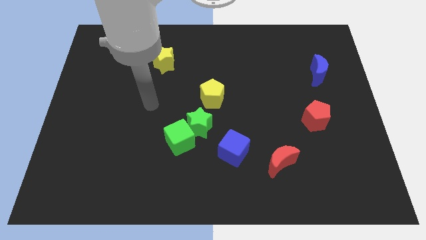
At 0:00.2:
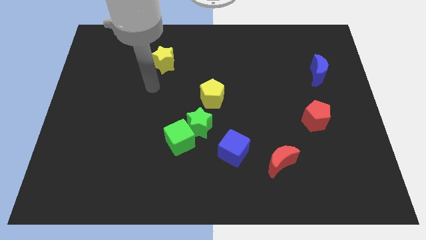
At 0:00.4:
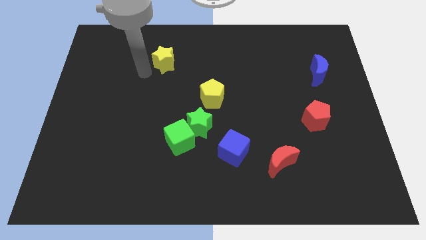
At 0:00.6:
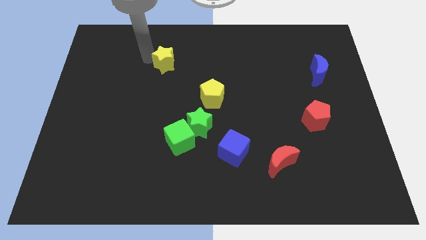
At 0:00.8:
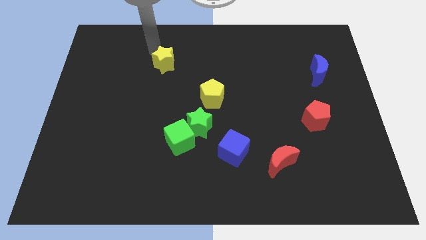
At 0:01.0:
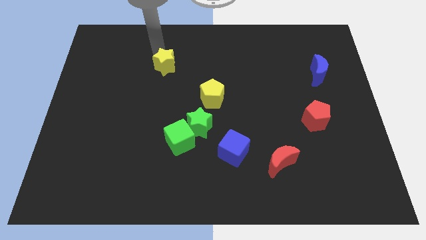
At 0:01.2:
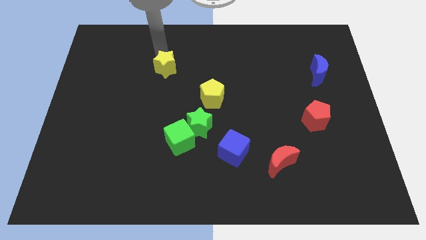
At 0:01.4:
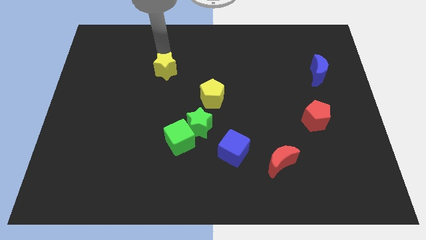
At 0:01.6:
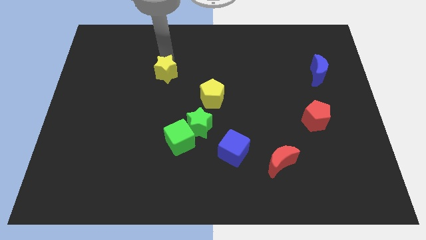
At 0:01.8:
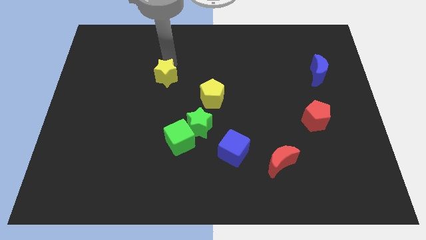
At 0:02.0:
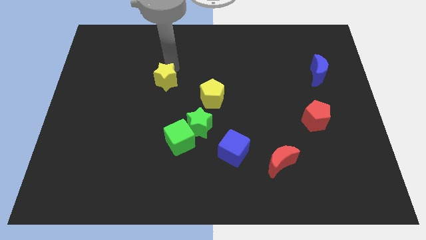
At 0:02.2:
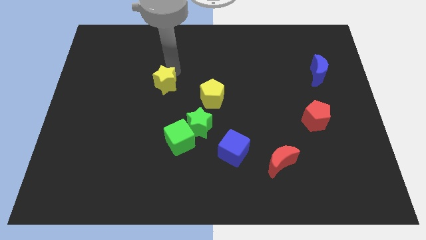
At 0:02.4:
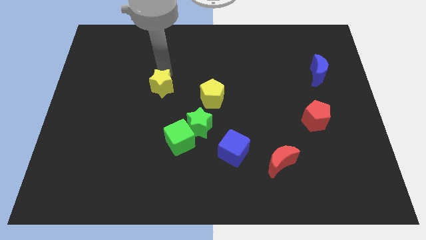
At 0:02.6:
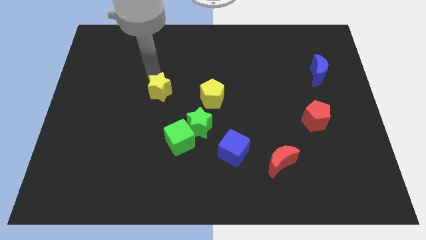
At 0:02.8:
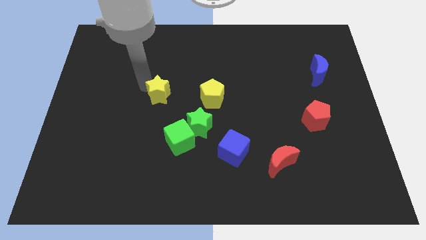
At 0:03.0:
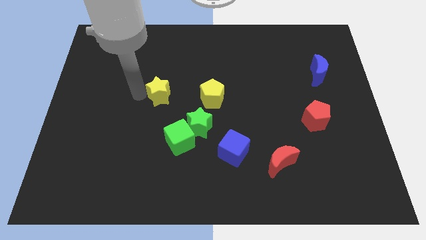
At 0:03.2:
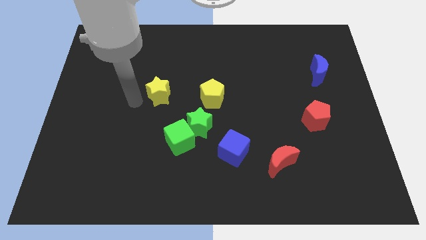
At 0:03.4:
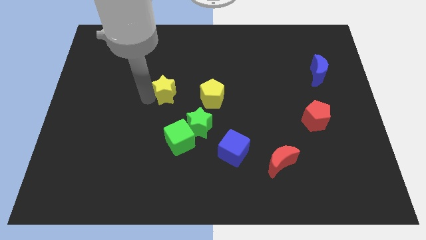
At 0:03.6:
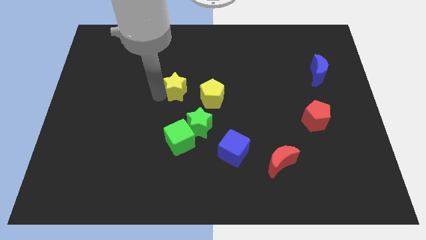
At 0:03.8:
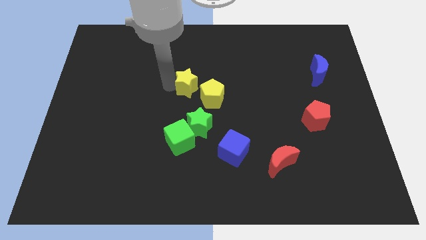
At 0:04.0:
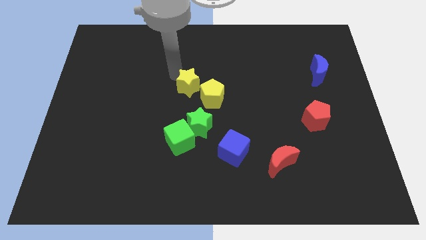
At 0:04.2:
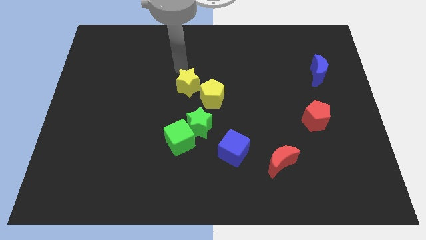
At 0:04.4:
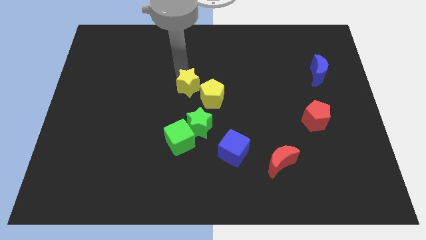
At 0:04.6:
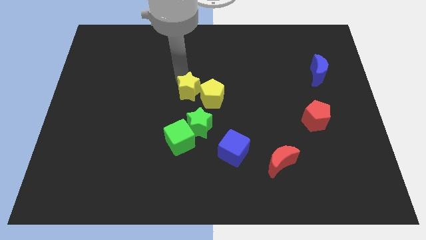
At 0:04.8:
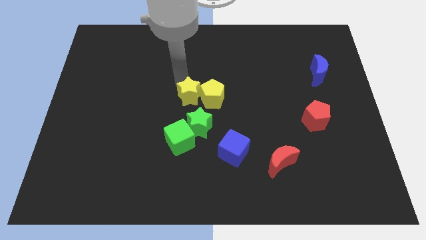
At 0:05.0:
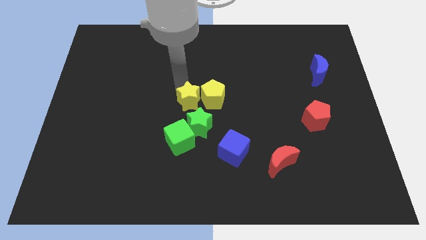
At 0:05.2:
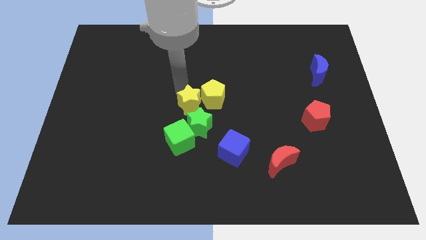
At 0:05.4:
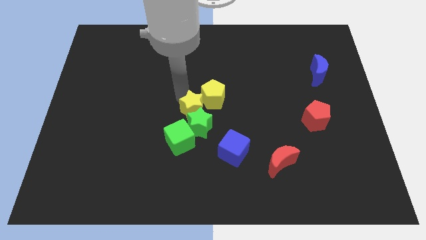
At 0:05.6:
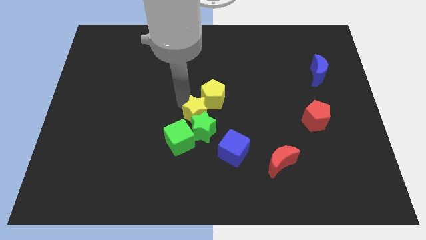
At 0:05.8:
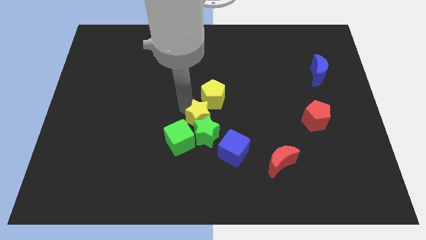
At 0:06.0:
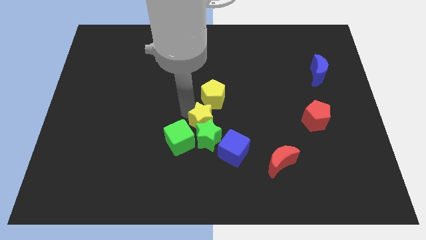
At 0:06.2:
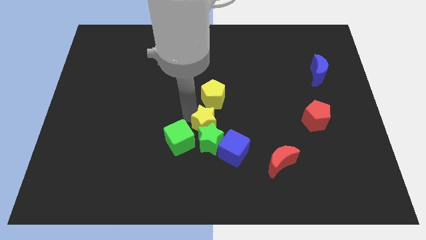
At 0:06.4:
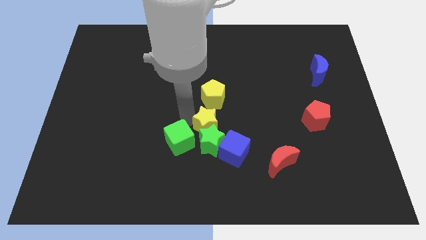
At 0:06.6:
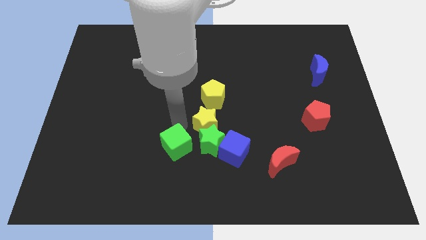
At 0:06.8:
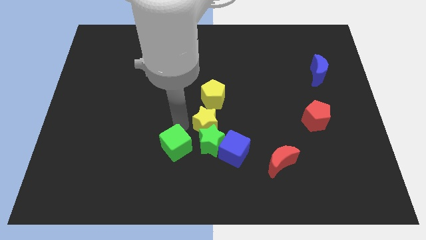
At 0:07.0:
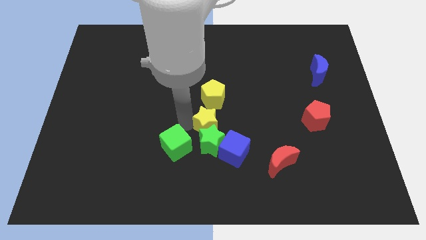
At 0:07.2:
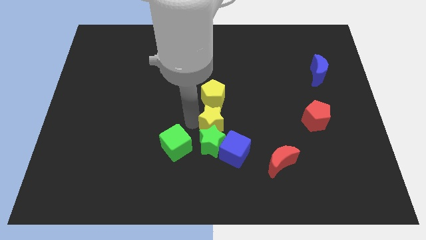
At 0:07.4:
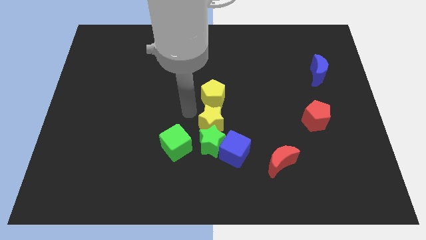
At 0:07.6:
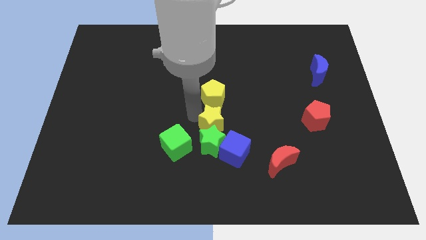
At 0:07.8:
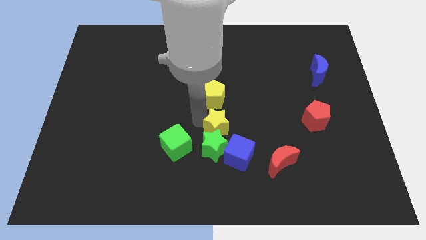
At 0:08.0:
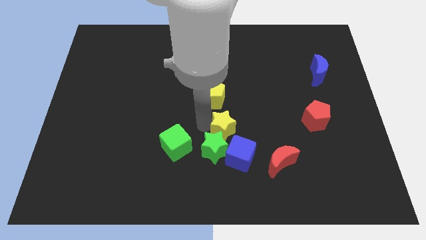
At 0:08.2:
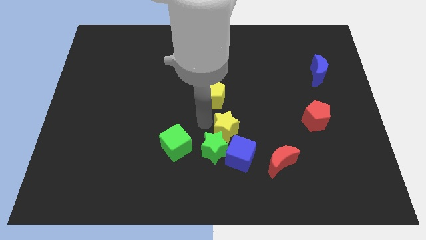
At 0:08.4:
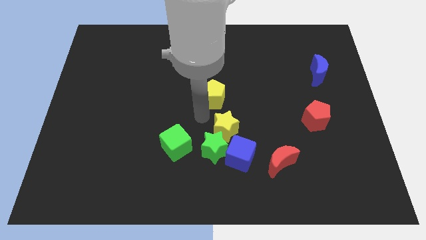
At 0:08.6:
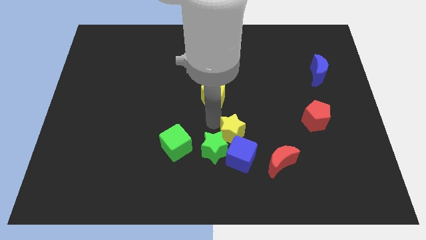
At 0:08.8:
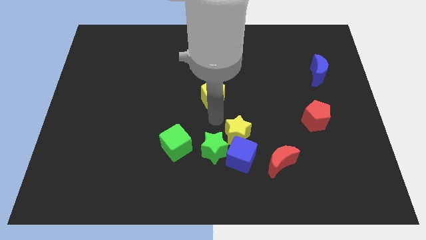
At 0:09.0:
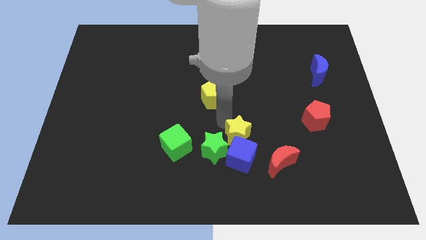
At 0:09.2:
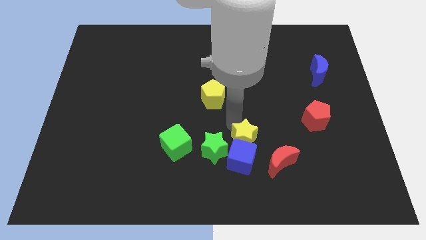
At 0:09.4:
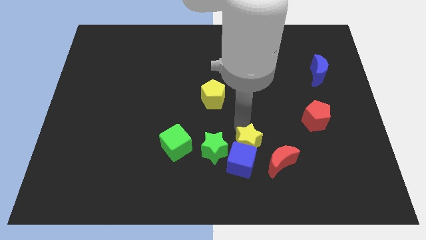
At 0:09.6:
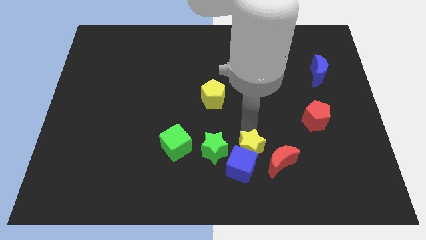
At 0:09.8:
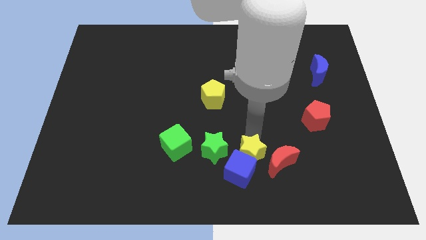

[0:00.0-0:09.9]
put the yellow star to the red moon

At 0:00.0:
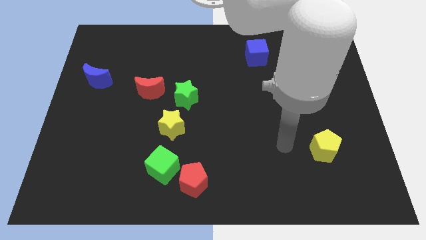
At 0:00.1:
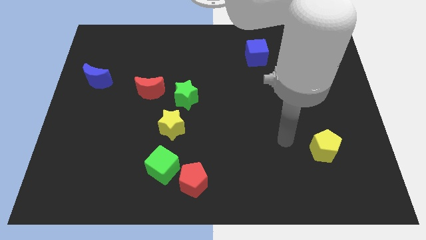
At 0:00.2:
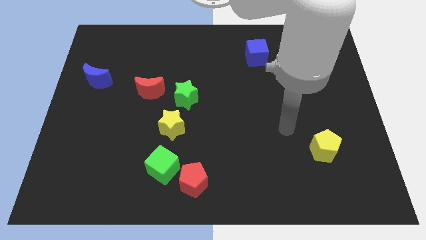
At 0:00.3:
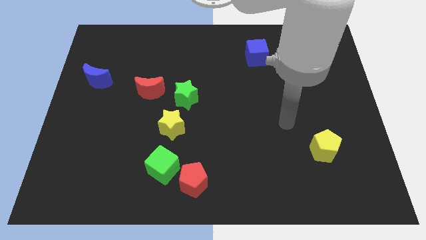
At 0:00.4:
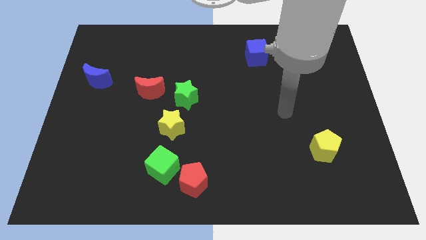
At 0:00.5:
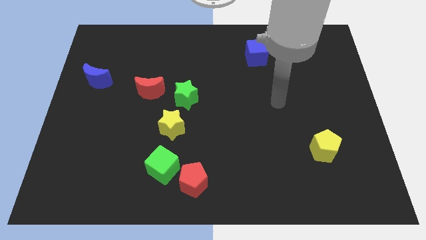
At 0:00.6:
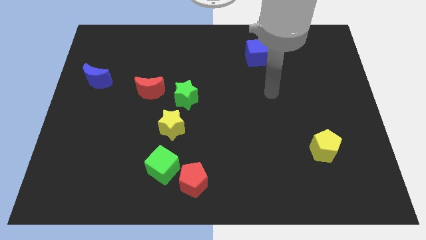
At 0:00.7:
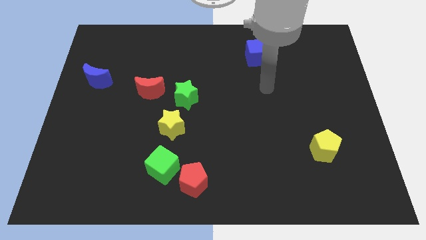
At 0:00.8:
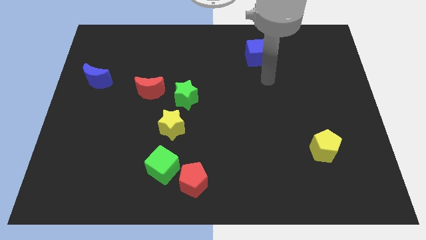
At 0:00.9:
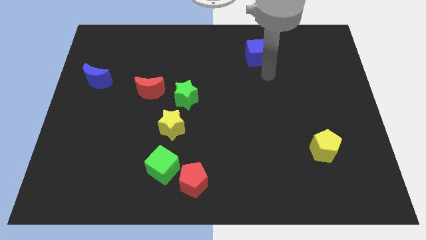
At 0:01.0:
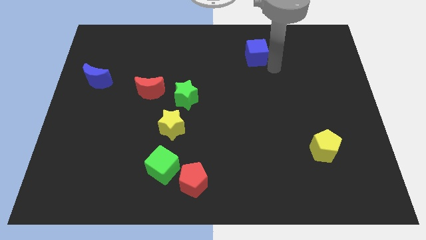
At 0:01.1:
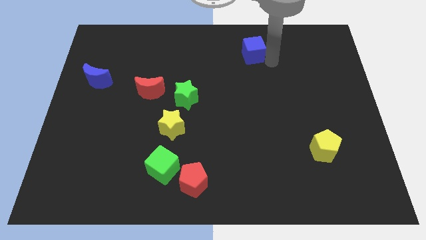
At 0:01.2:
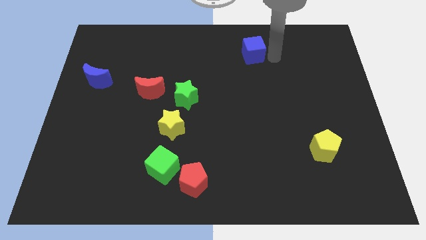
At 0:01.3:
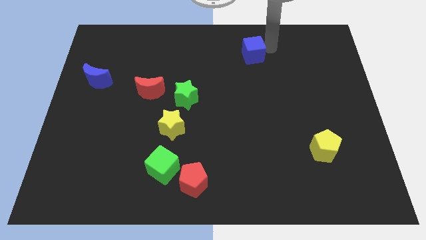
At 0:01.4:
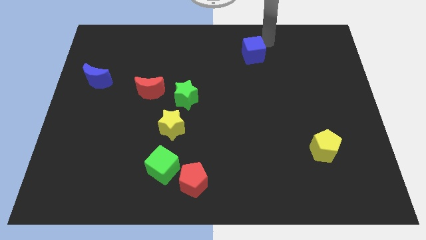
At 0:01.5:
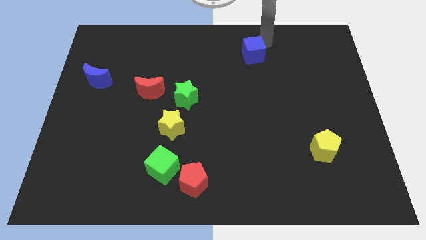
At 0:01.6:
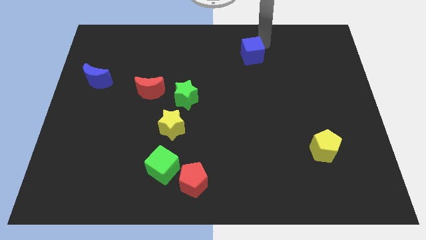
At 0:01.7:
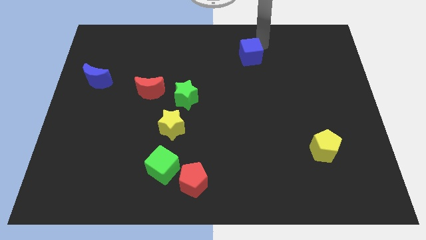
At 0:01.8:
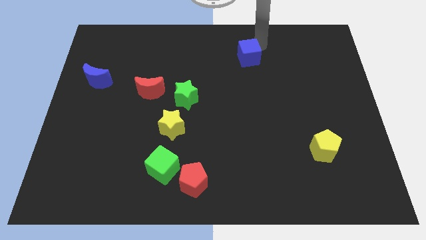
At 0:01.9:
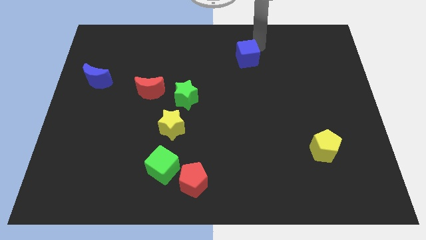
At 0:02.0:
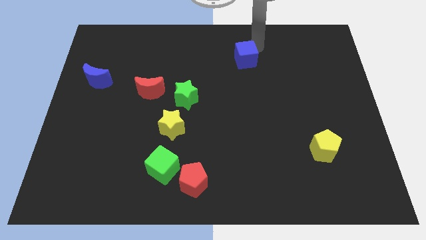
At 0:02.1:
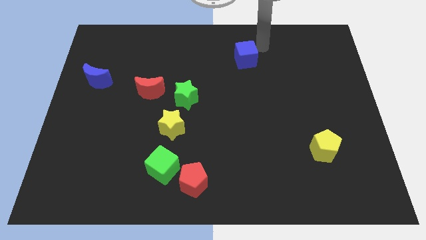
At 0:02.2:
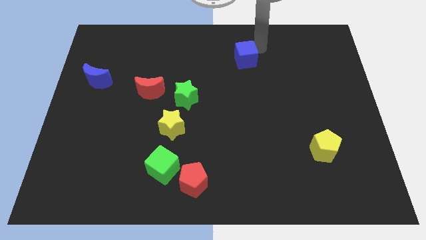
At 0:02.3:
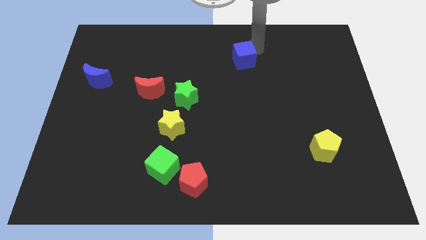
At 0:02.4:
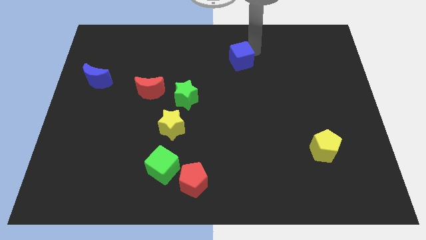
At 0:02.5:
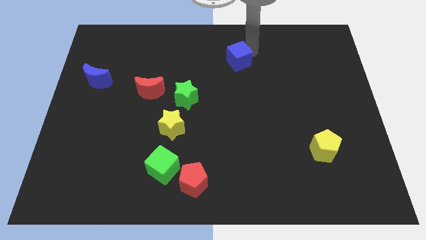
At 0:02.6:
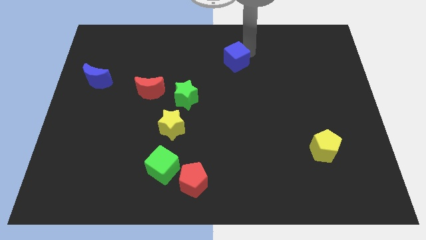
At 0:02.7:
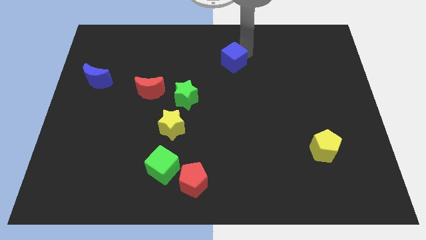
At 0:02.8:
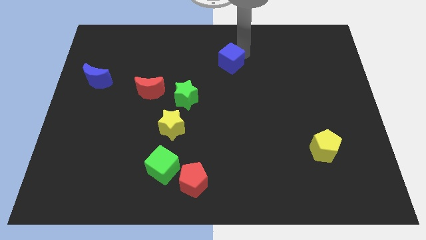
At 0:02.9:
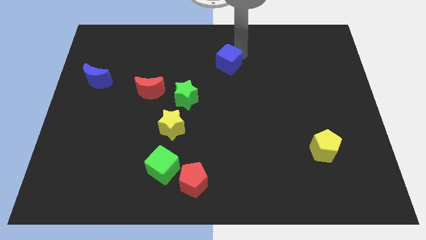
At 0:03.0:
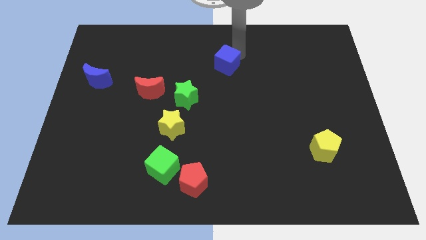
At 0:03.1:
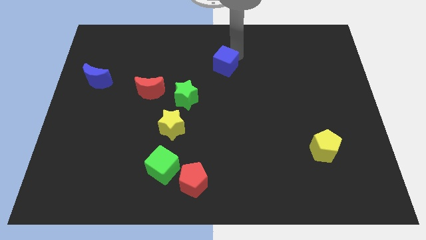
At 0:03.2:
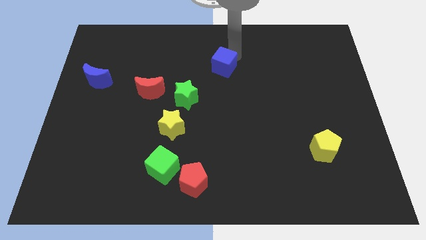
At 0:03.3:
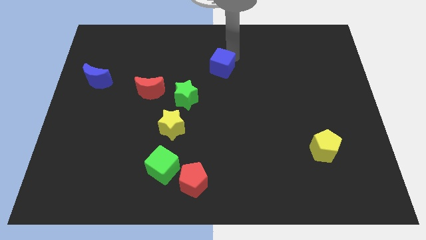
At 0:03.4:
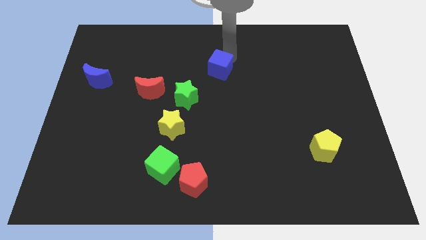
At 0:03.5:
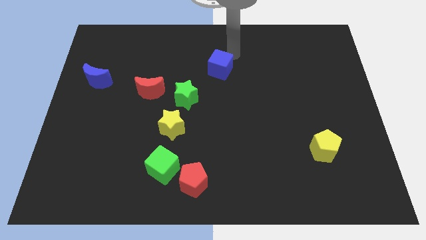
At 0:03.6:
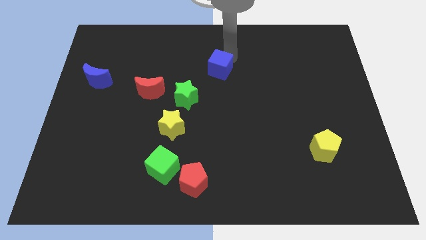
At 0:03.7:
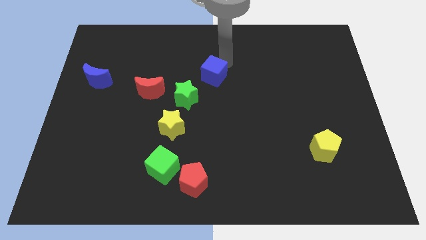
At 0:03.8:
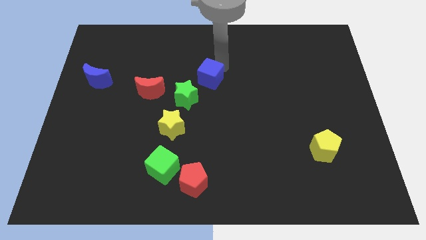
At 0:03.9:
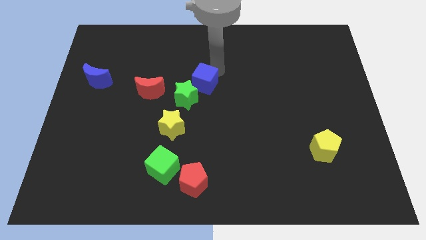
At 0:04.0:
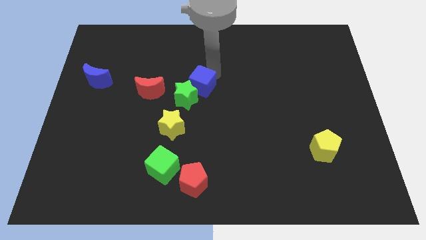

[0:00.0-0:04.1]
push the blue cube close to the green star
